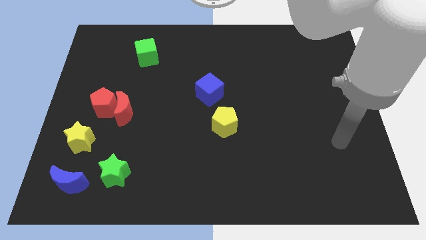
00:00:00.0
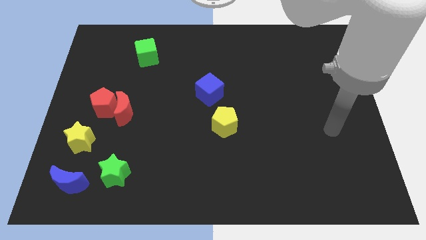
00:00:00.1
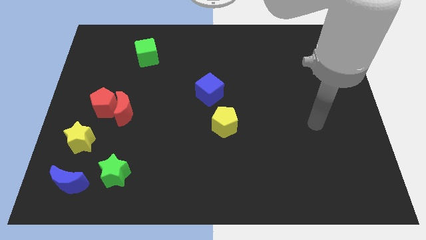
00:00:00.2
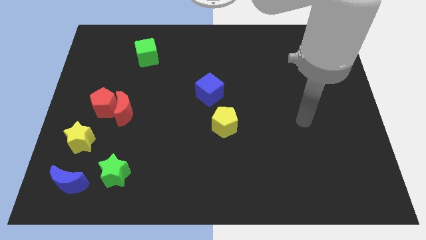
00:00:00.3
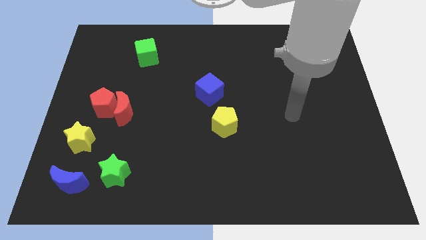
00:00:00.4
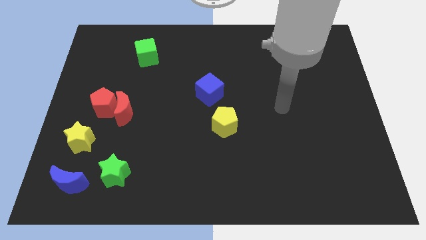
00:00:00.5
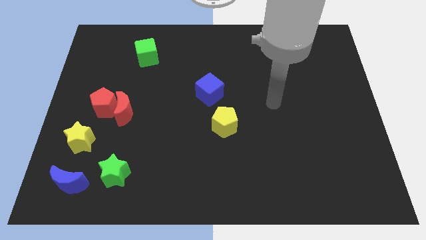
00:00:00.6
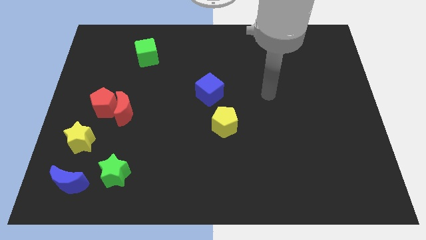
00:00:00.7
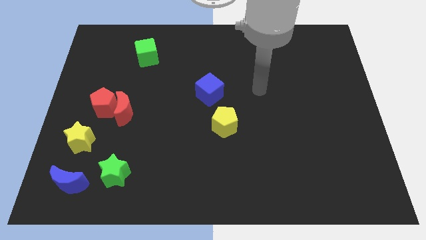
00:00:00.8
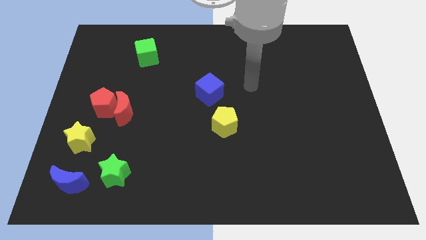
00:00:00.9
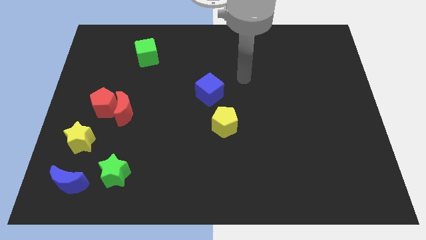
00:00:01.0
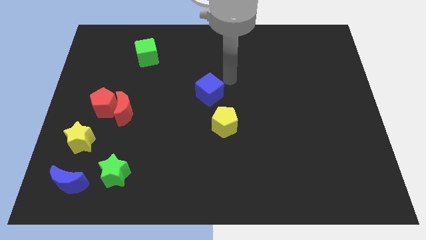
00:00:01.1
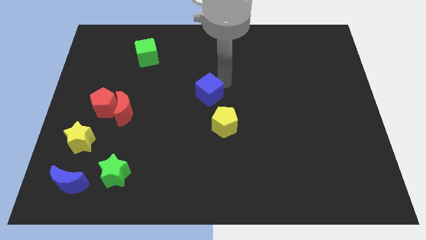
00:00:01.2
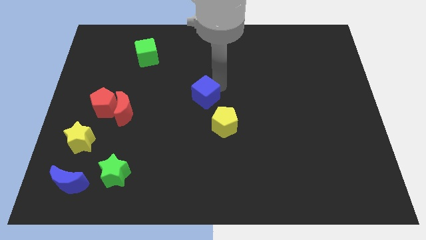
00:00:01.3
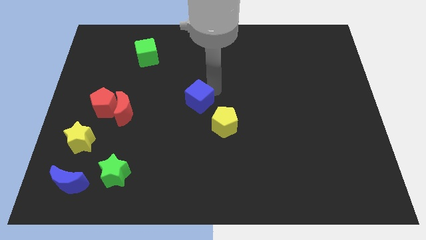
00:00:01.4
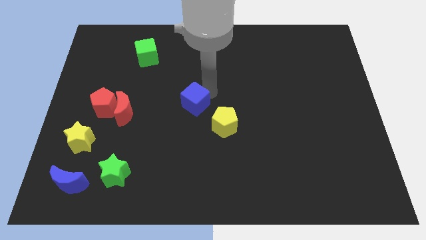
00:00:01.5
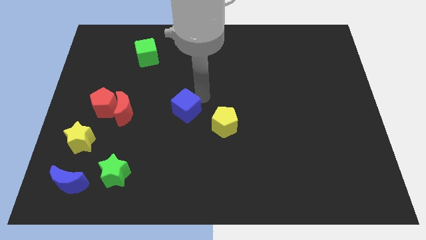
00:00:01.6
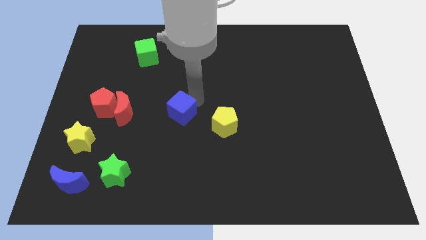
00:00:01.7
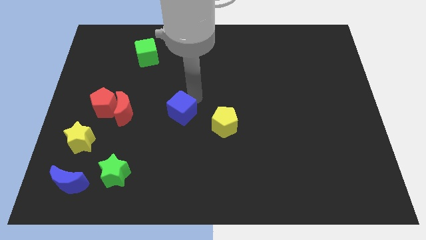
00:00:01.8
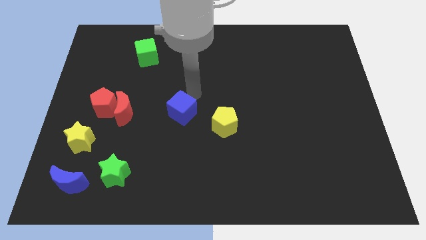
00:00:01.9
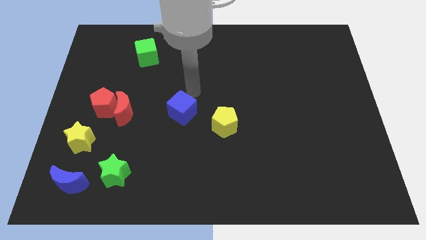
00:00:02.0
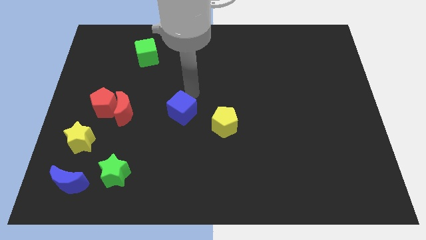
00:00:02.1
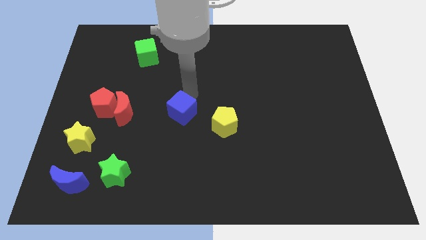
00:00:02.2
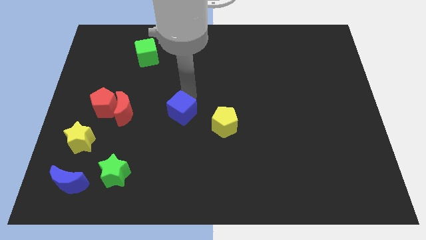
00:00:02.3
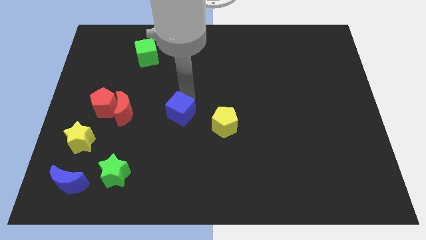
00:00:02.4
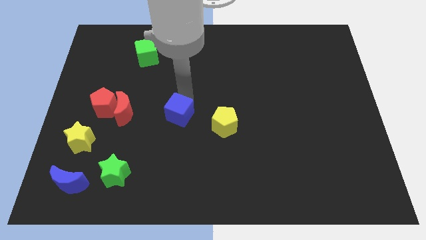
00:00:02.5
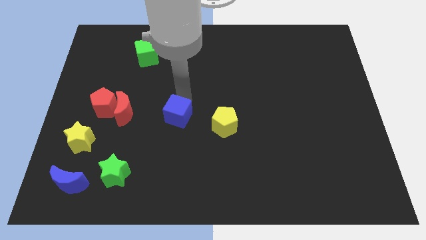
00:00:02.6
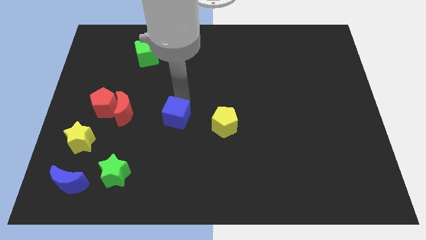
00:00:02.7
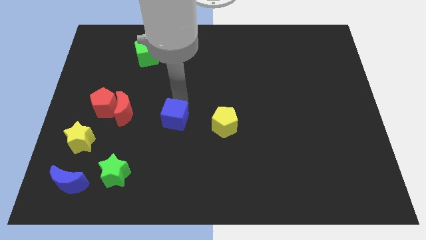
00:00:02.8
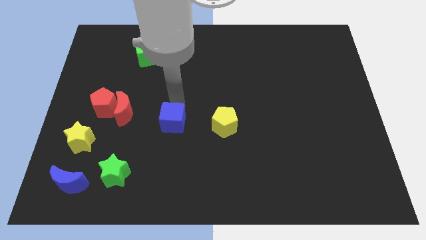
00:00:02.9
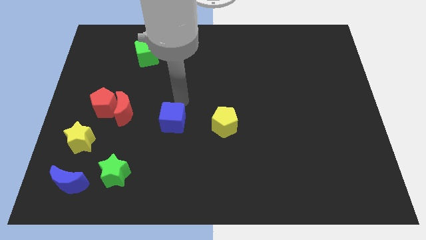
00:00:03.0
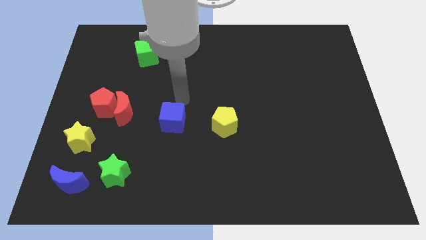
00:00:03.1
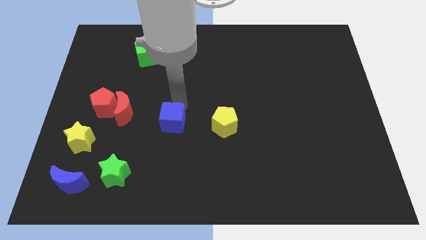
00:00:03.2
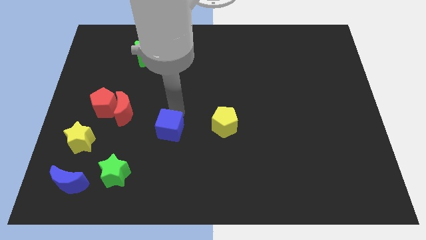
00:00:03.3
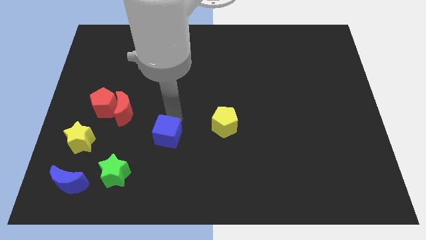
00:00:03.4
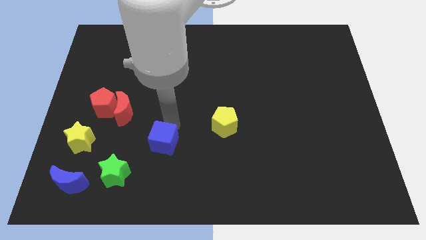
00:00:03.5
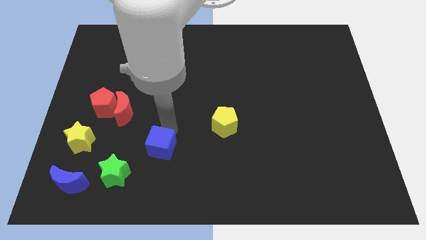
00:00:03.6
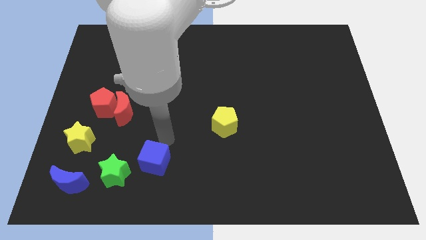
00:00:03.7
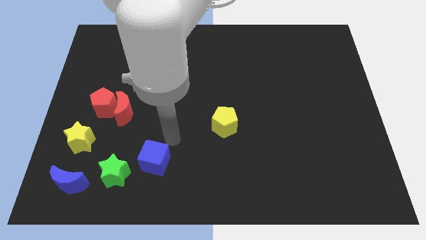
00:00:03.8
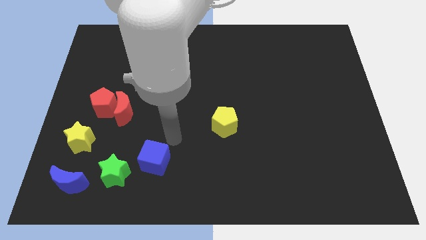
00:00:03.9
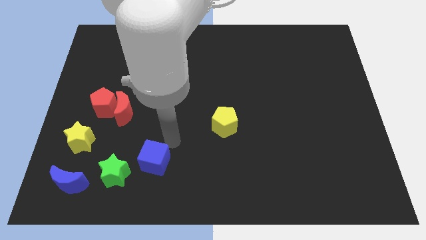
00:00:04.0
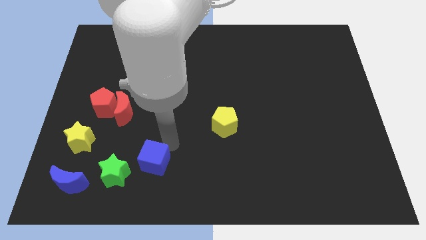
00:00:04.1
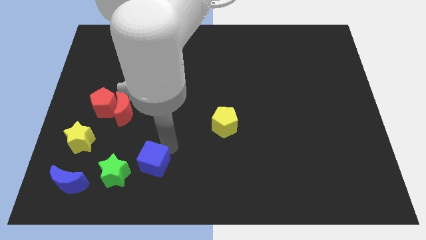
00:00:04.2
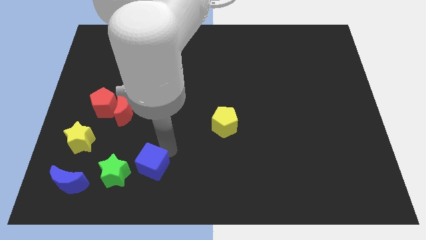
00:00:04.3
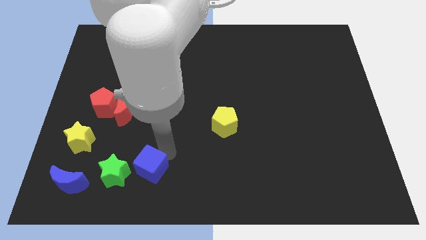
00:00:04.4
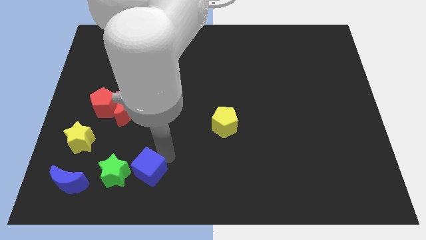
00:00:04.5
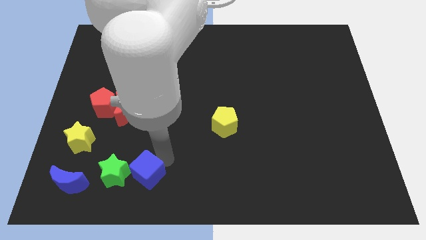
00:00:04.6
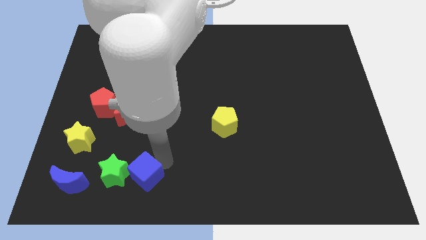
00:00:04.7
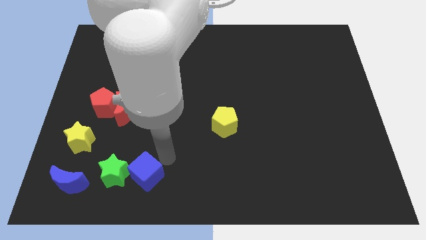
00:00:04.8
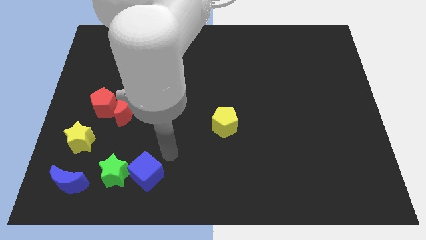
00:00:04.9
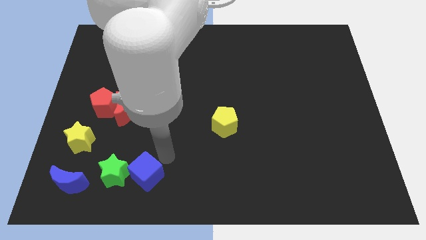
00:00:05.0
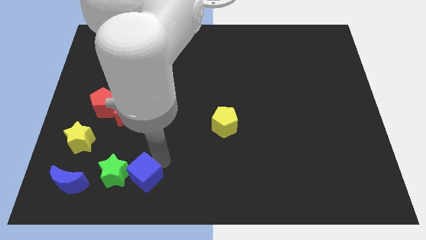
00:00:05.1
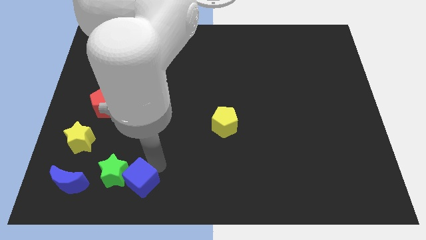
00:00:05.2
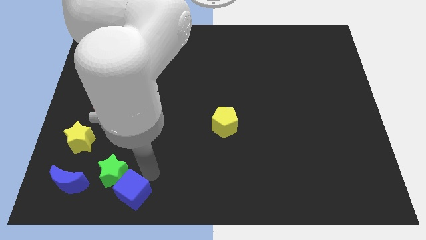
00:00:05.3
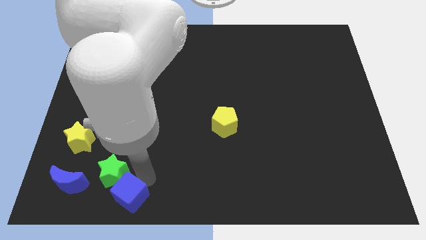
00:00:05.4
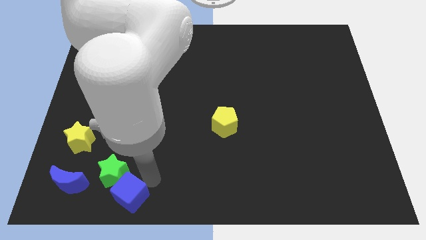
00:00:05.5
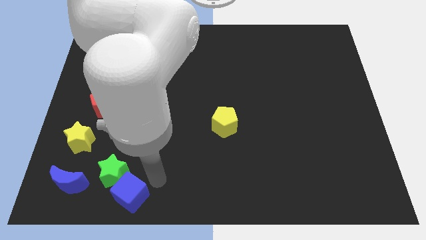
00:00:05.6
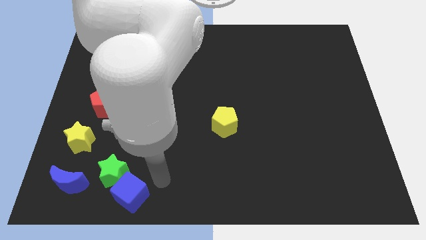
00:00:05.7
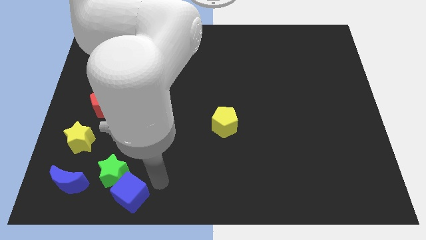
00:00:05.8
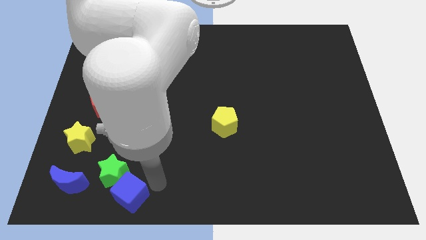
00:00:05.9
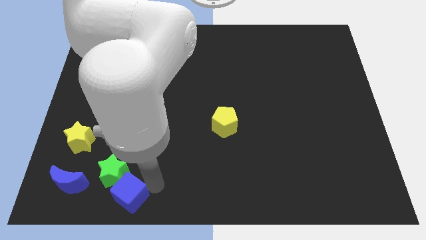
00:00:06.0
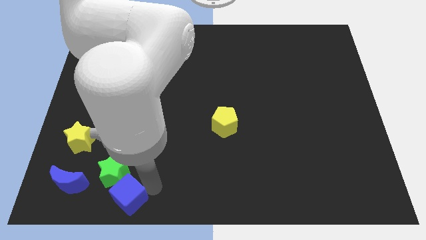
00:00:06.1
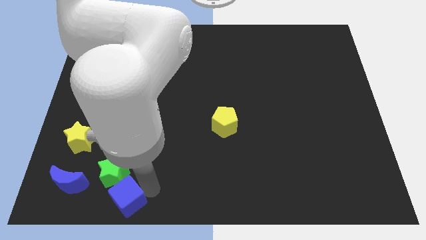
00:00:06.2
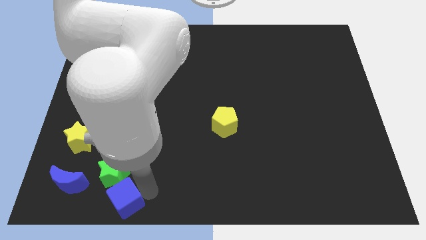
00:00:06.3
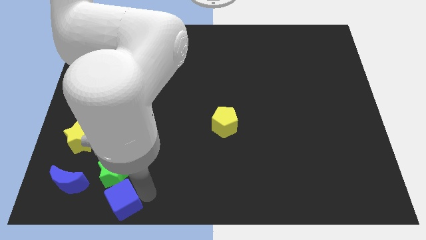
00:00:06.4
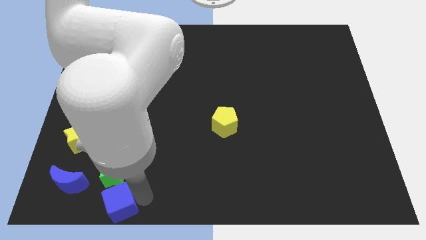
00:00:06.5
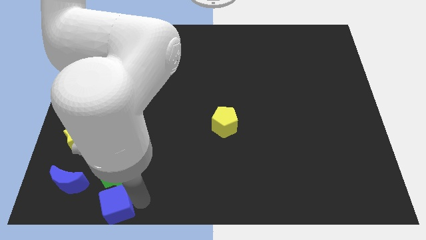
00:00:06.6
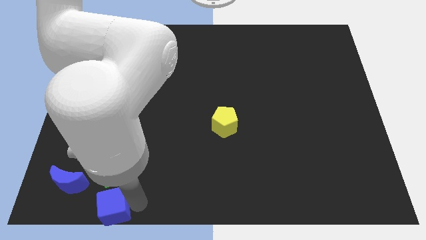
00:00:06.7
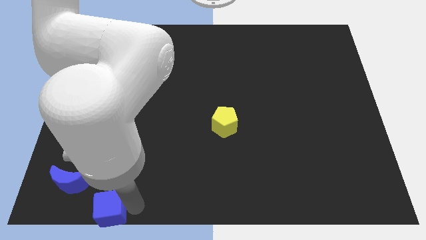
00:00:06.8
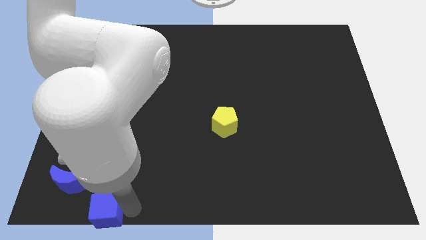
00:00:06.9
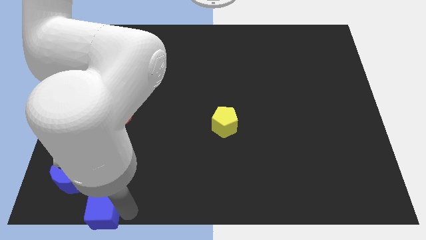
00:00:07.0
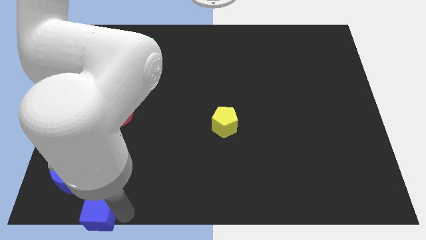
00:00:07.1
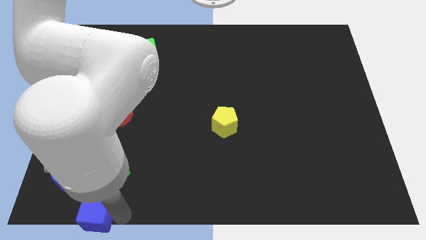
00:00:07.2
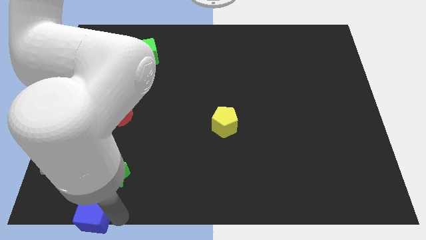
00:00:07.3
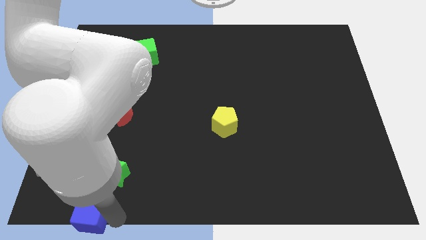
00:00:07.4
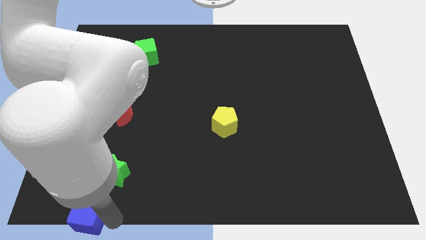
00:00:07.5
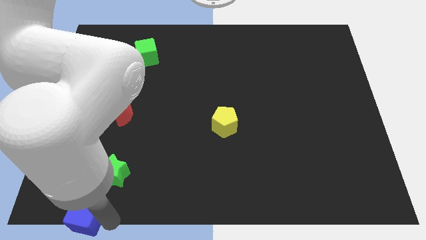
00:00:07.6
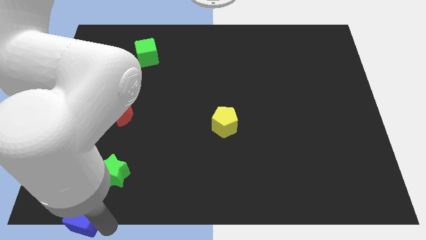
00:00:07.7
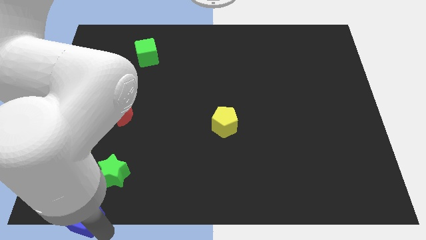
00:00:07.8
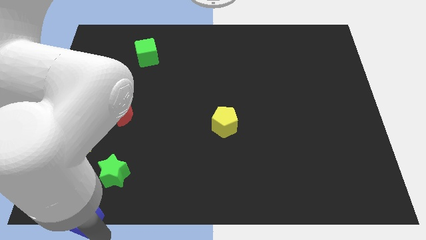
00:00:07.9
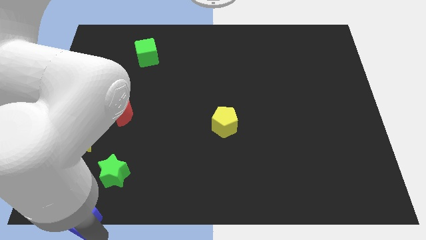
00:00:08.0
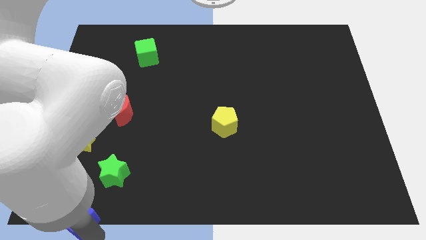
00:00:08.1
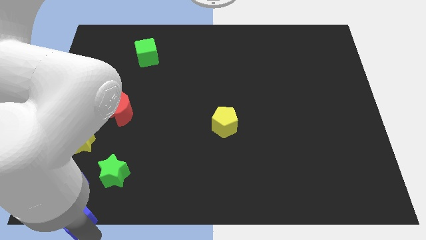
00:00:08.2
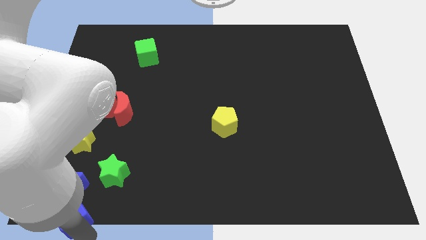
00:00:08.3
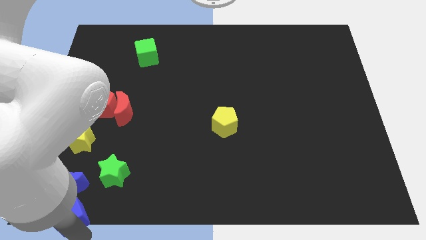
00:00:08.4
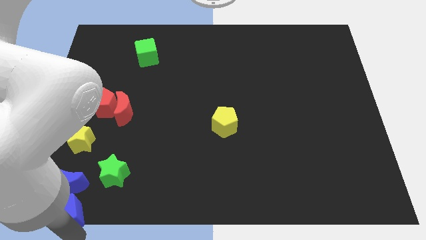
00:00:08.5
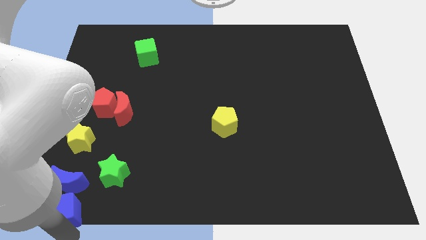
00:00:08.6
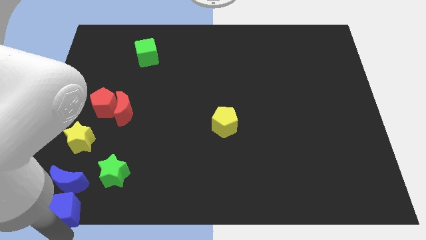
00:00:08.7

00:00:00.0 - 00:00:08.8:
push the blue cube to the bottom of the yellow star
